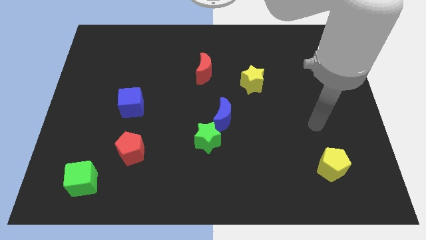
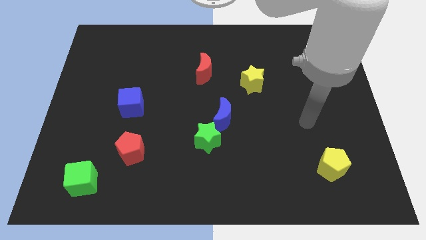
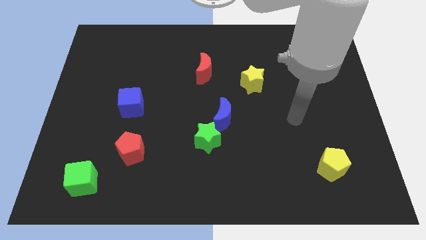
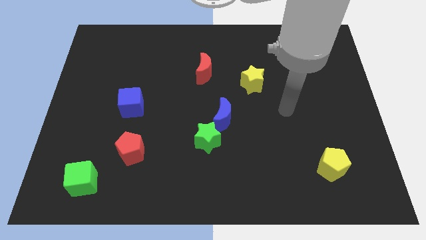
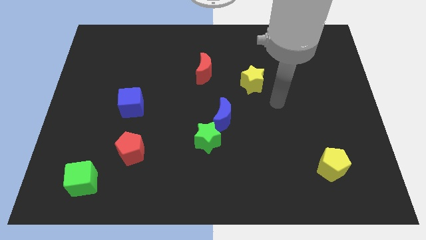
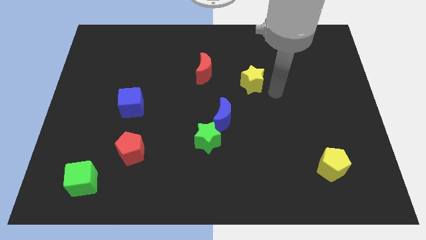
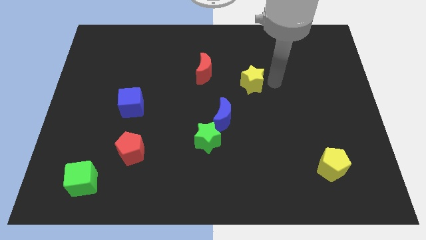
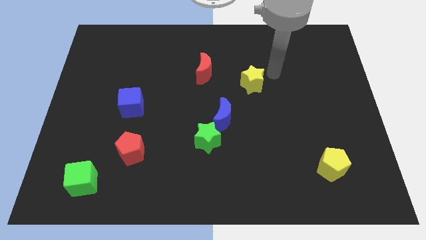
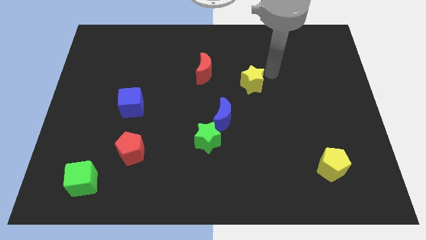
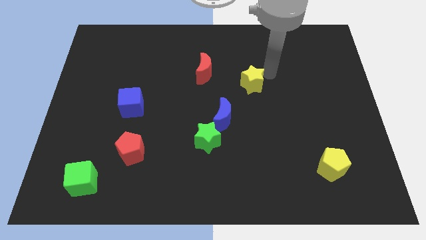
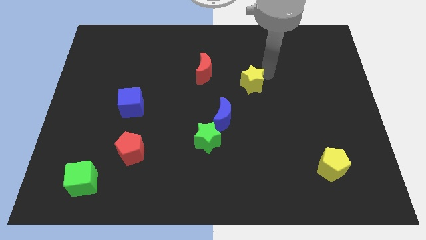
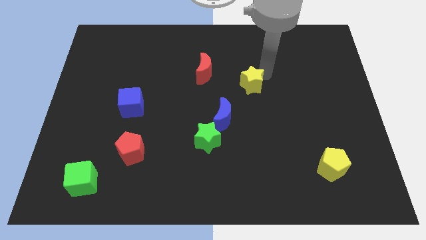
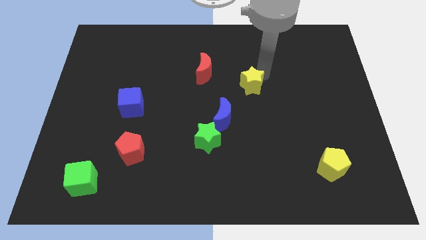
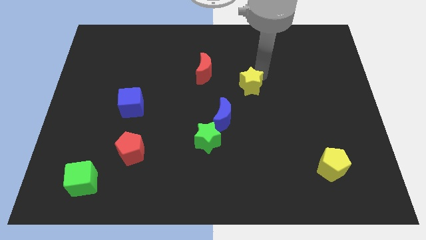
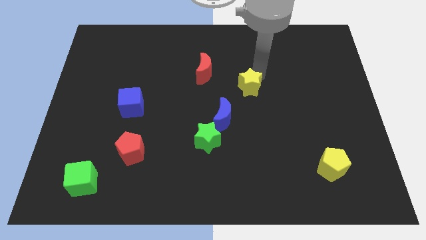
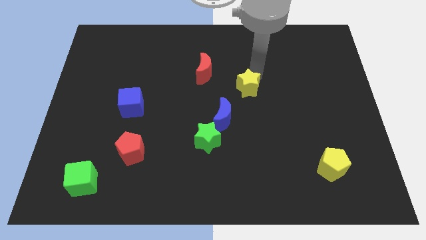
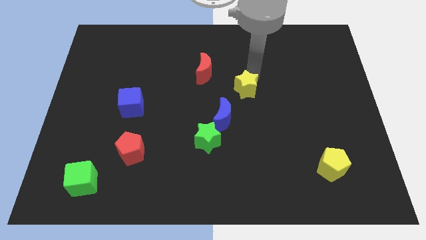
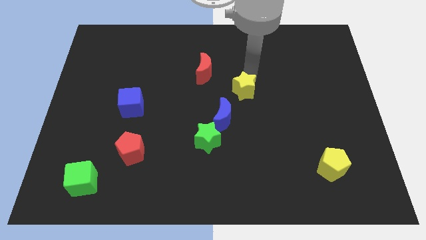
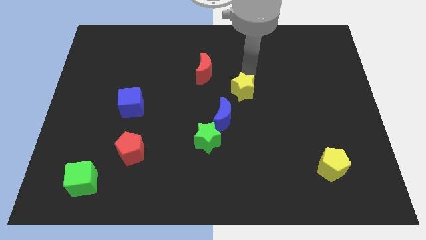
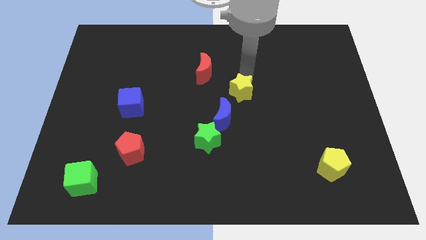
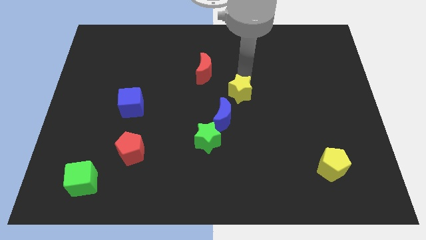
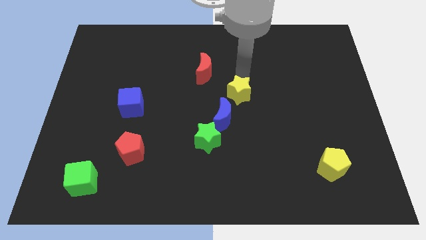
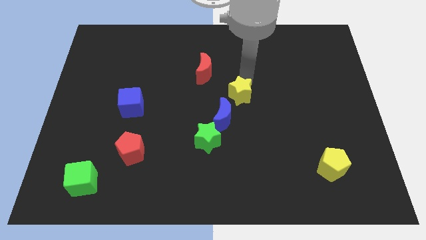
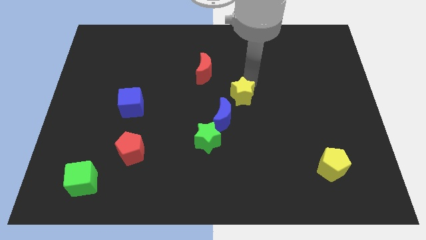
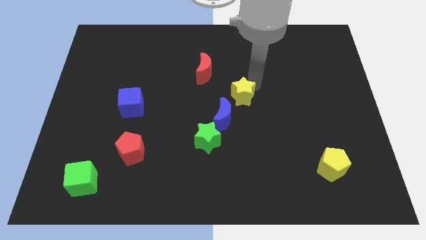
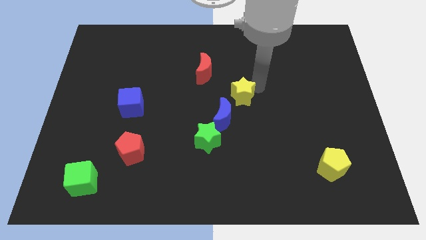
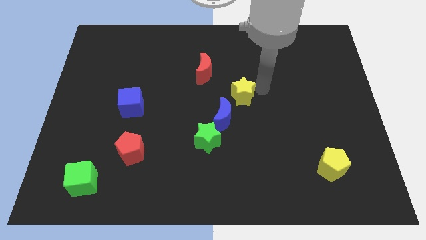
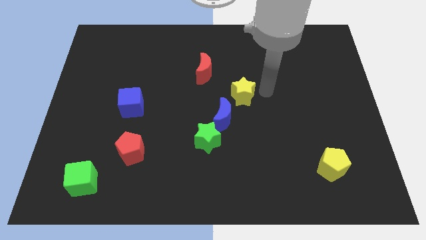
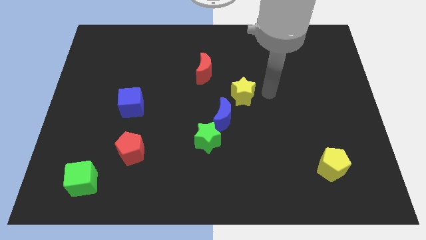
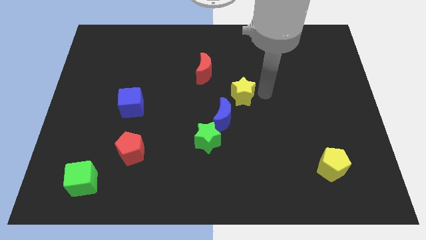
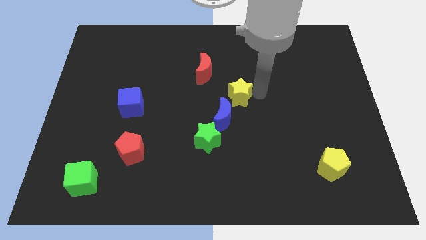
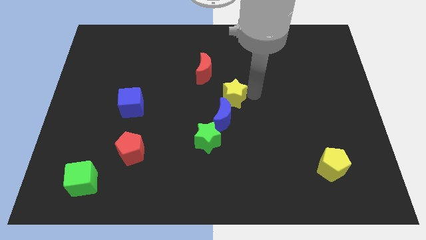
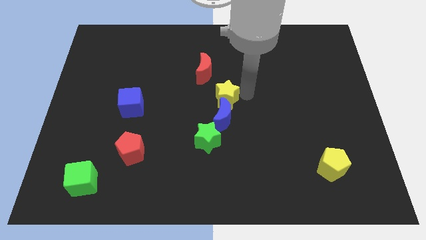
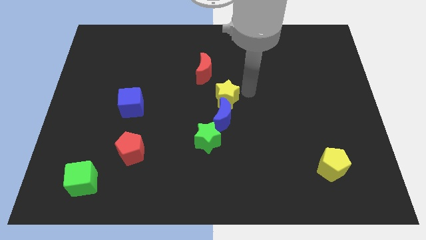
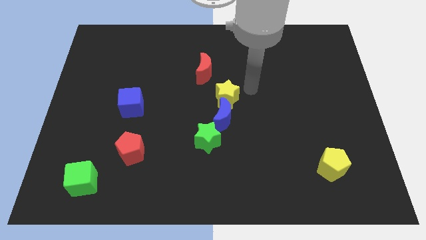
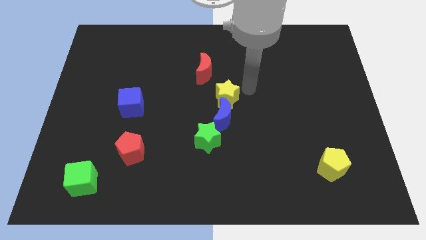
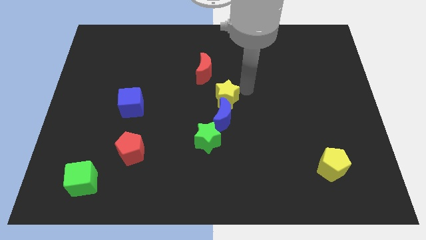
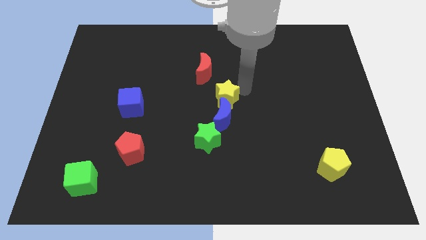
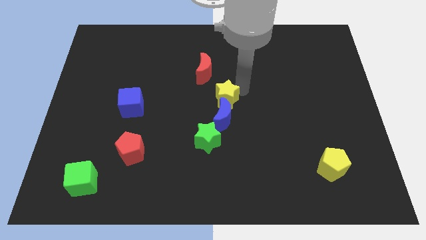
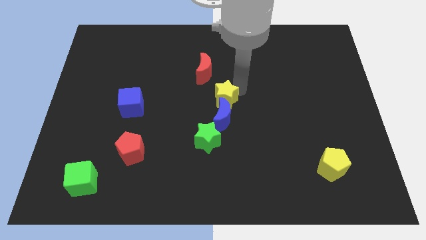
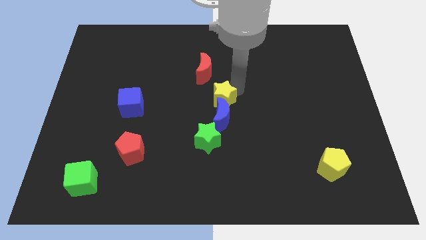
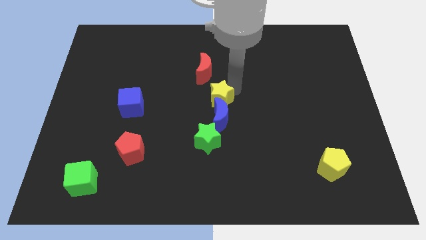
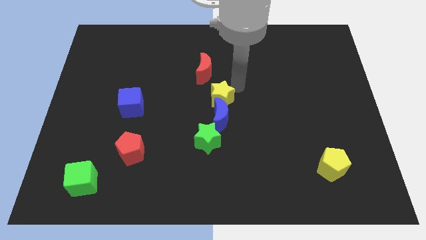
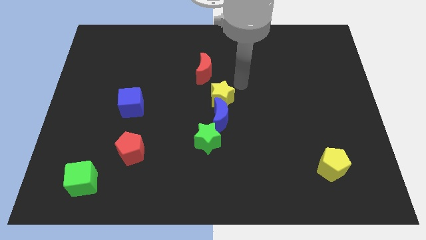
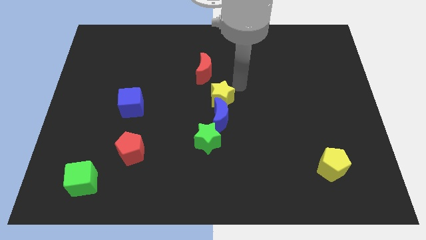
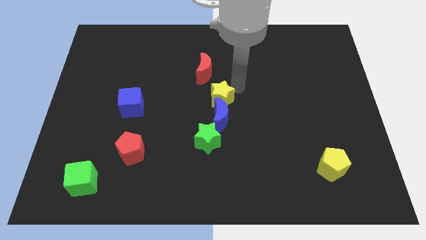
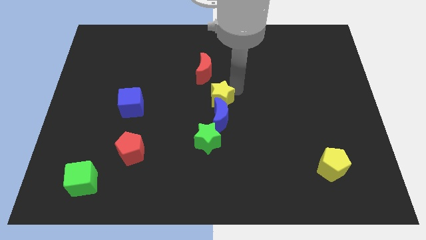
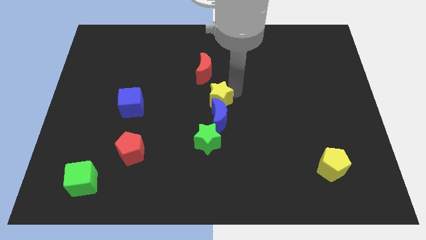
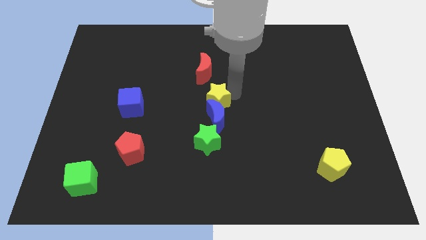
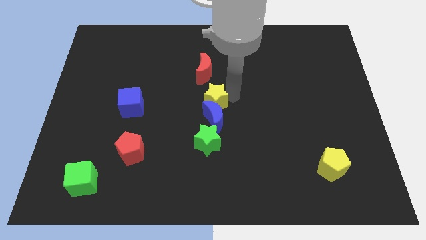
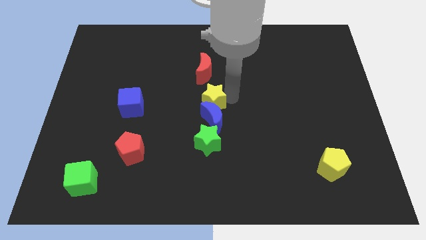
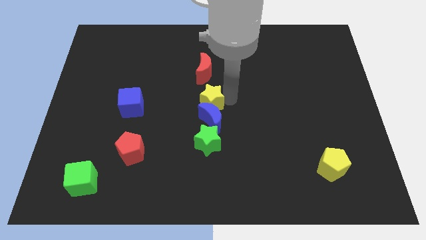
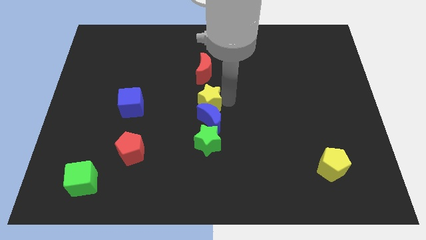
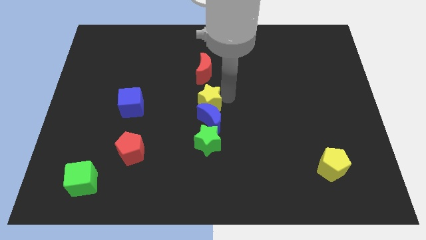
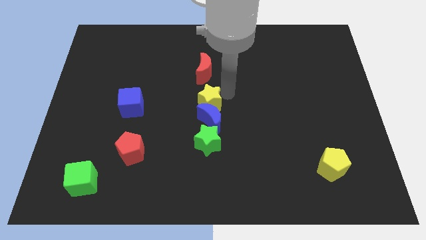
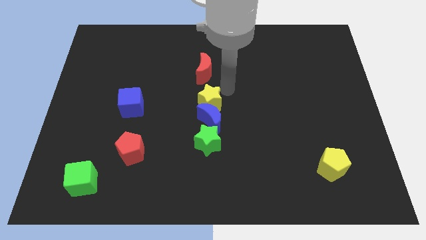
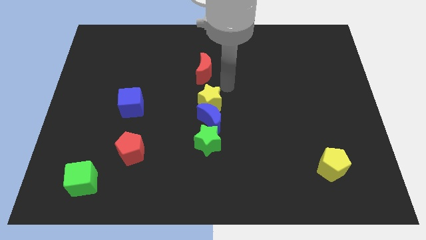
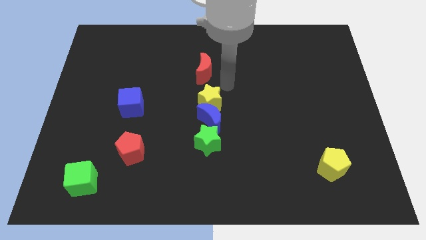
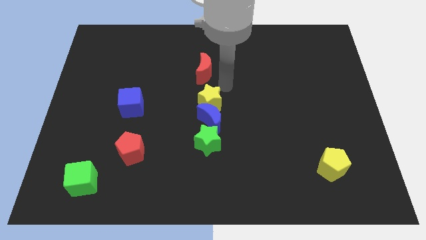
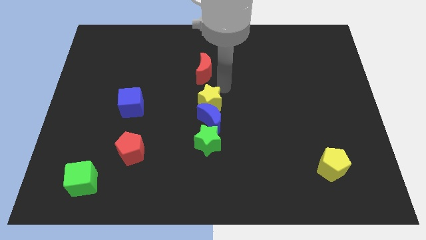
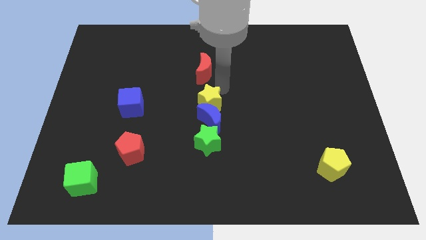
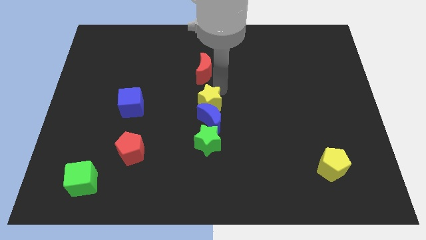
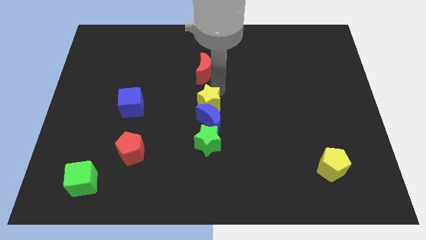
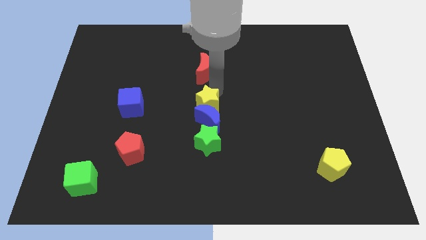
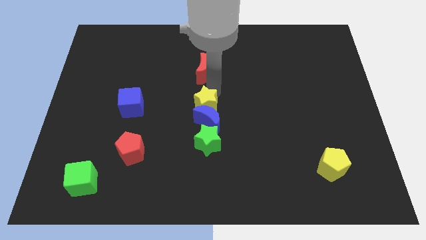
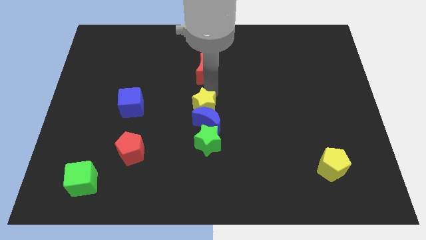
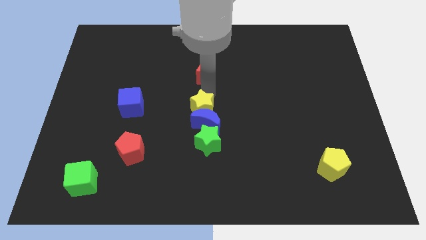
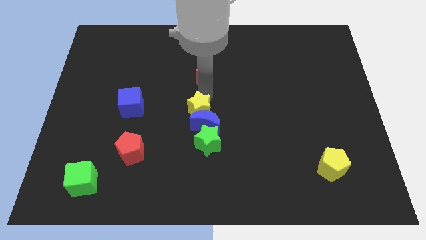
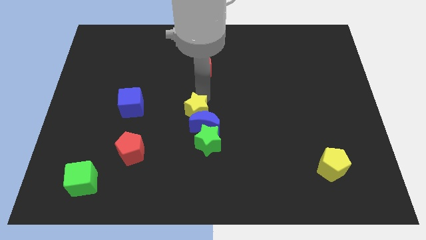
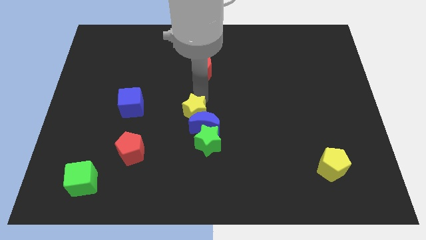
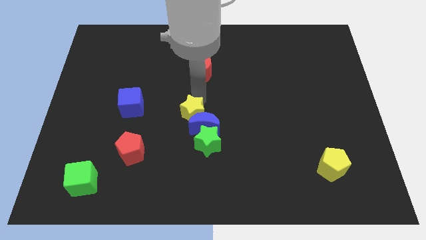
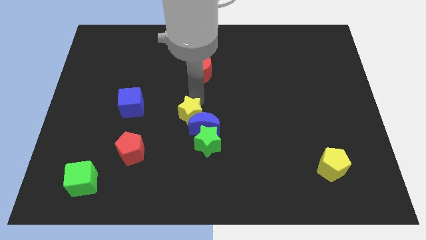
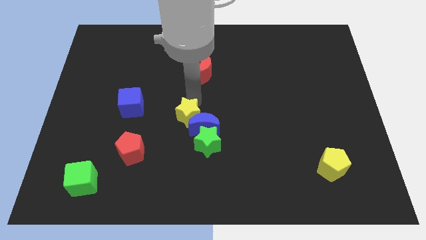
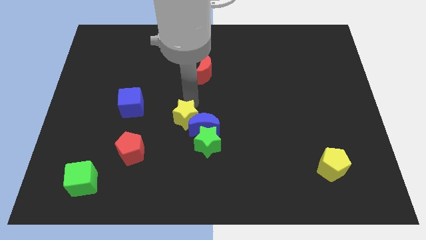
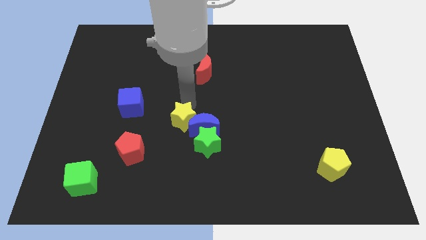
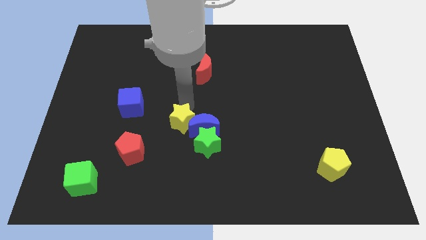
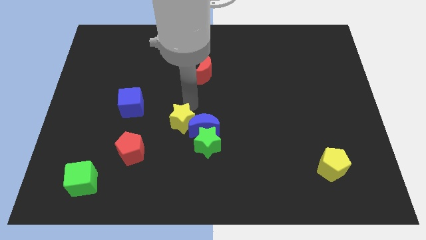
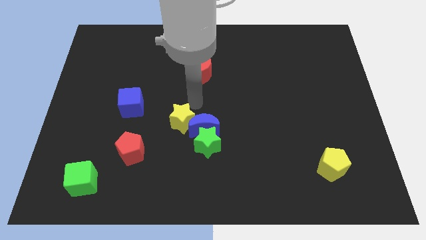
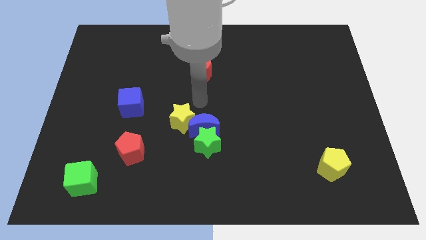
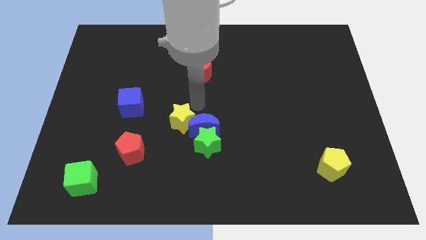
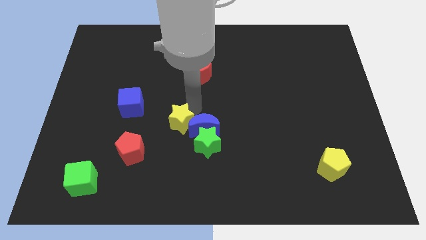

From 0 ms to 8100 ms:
push the yellow star downwards and to the left diagonally
